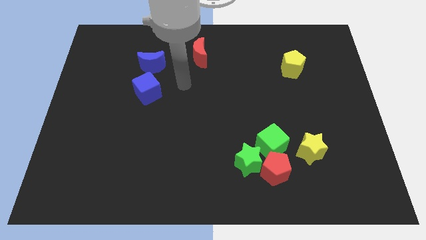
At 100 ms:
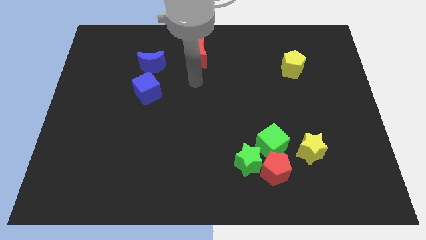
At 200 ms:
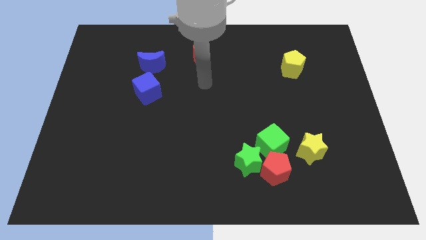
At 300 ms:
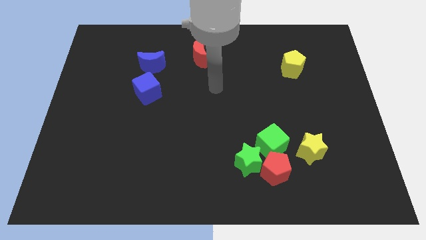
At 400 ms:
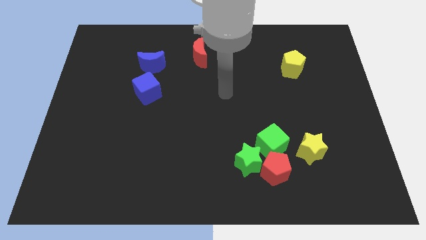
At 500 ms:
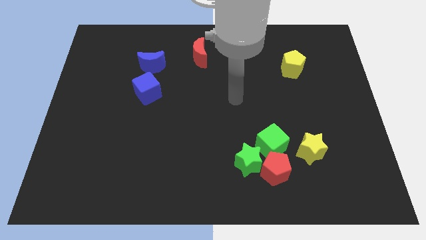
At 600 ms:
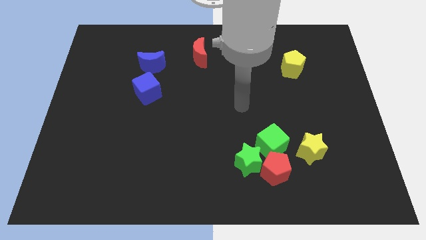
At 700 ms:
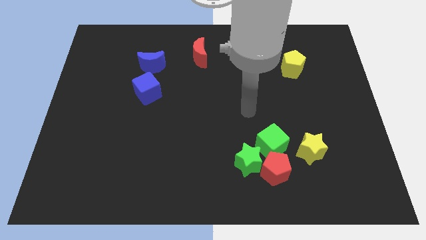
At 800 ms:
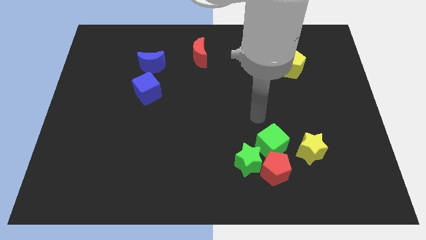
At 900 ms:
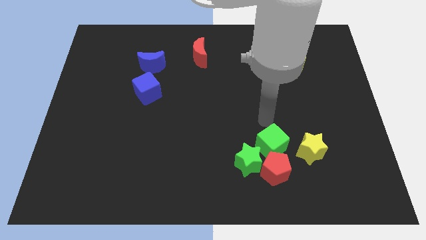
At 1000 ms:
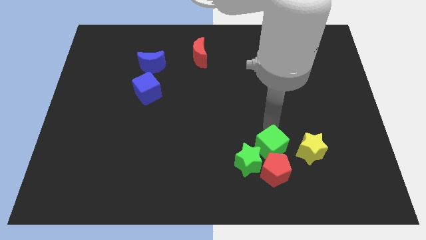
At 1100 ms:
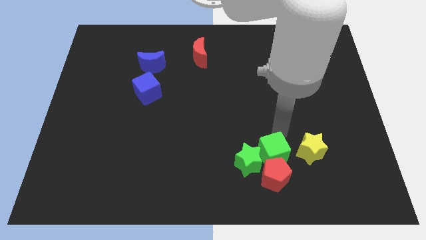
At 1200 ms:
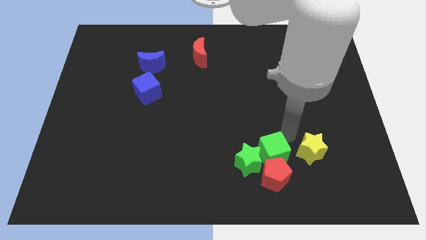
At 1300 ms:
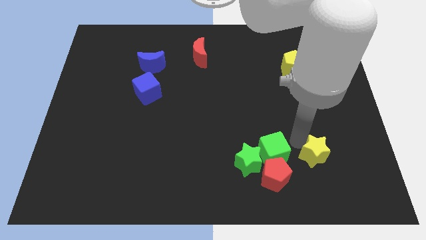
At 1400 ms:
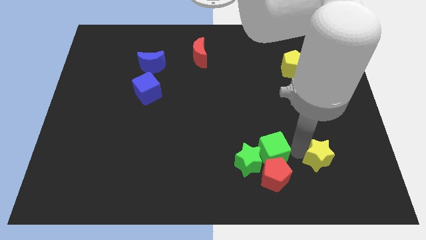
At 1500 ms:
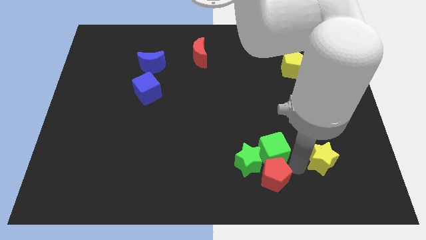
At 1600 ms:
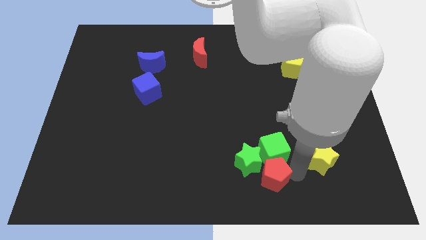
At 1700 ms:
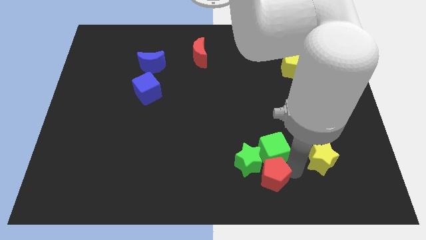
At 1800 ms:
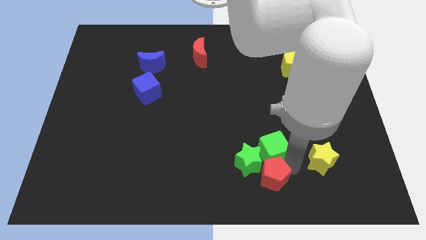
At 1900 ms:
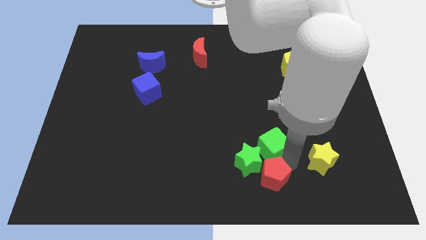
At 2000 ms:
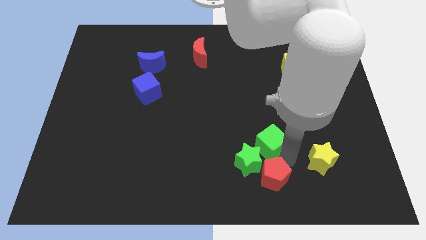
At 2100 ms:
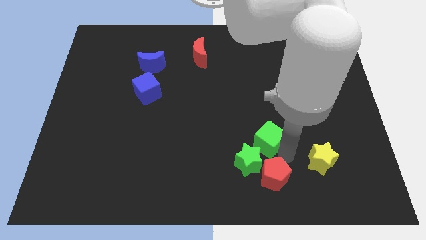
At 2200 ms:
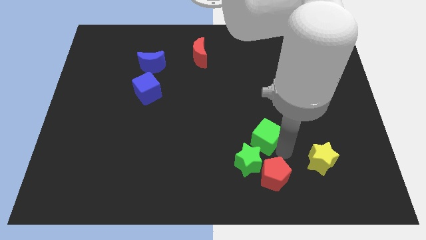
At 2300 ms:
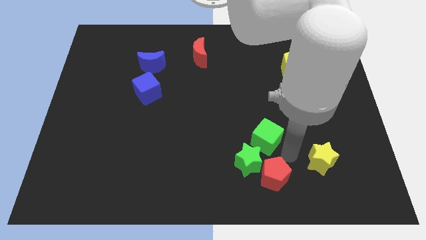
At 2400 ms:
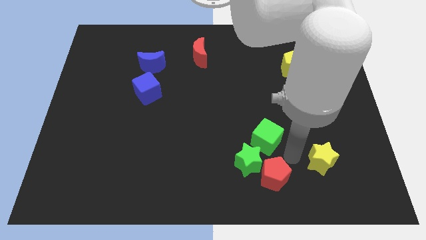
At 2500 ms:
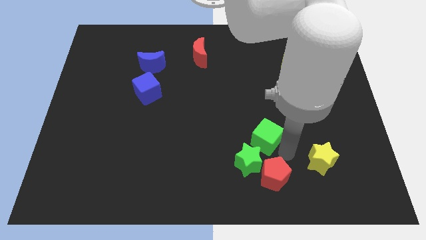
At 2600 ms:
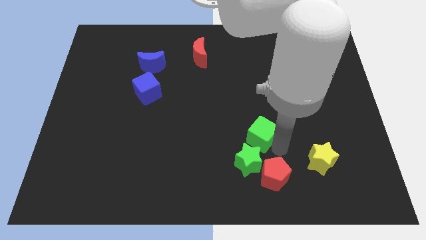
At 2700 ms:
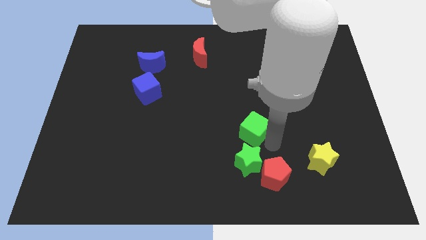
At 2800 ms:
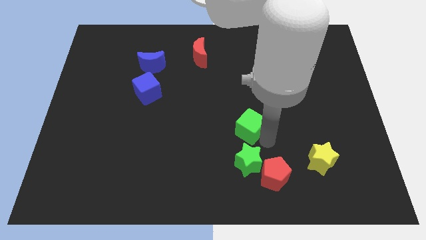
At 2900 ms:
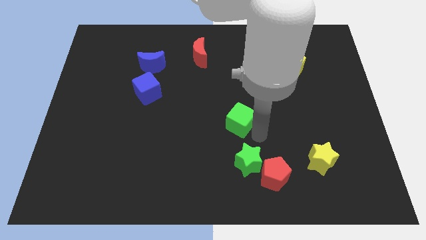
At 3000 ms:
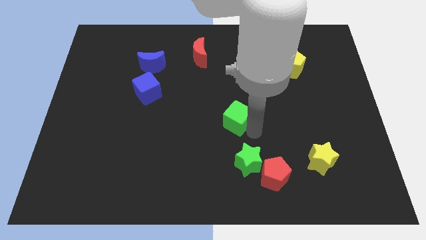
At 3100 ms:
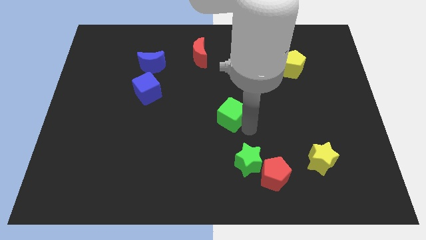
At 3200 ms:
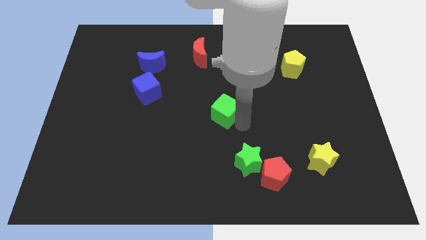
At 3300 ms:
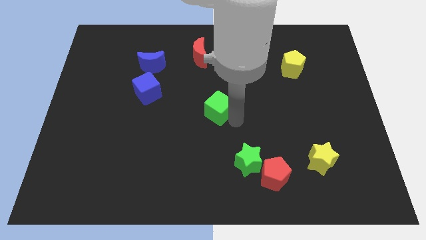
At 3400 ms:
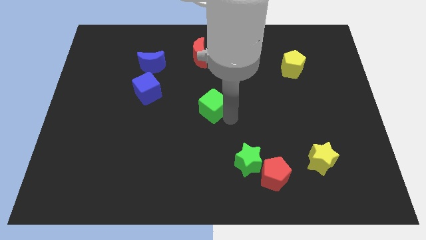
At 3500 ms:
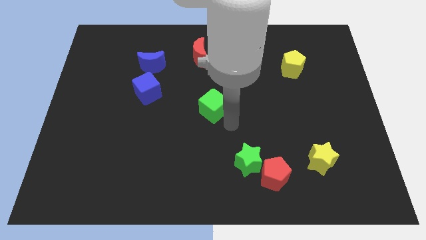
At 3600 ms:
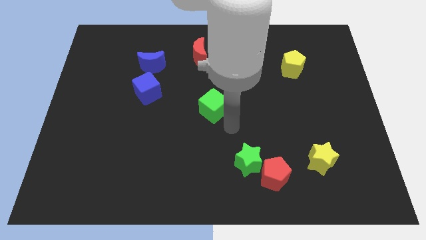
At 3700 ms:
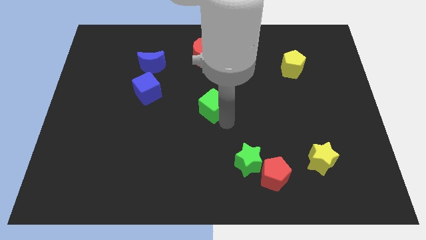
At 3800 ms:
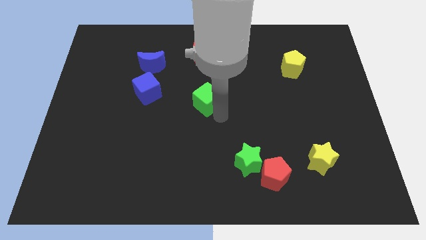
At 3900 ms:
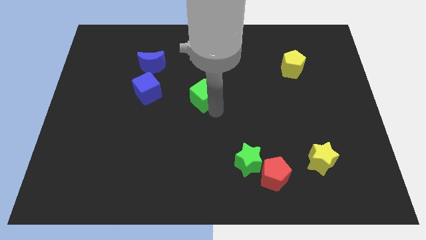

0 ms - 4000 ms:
push the green cube diagonally up and left

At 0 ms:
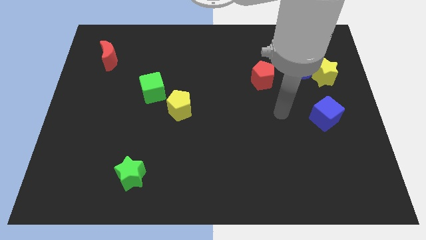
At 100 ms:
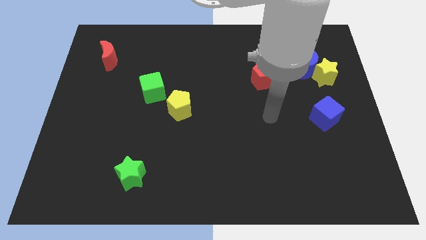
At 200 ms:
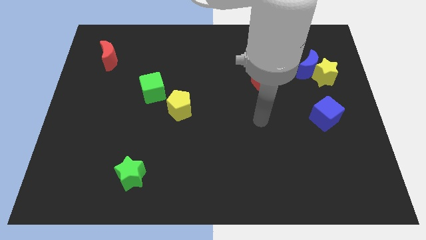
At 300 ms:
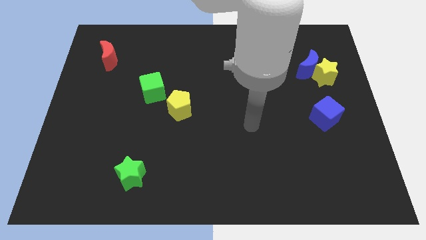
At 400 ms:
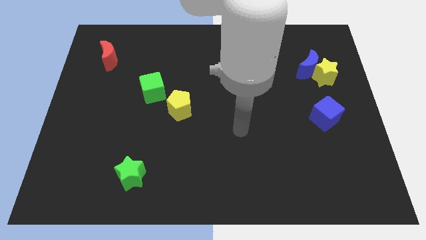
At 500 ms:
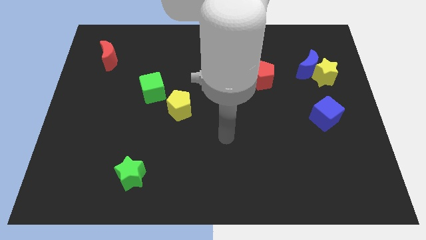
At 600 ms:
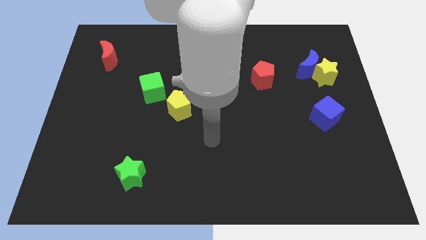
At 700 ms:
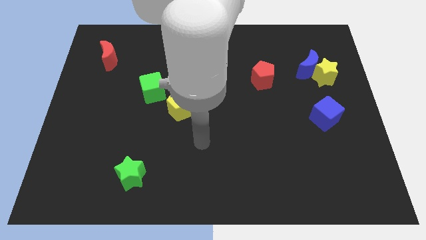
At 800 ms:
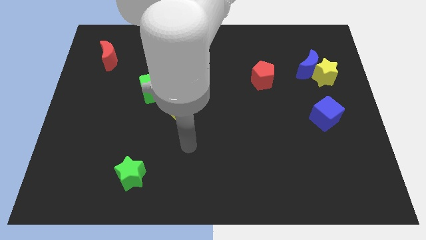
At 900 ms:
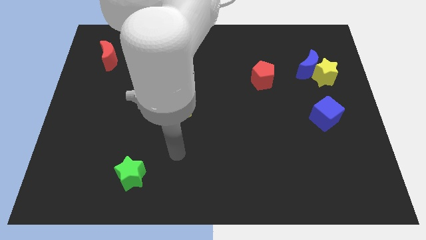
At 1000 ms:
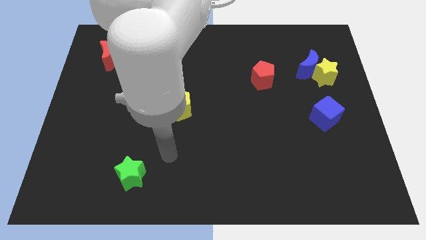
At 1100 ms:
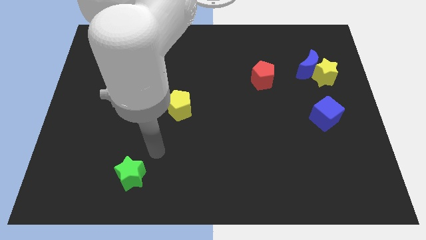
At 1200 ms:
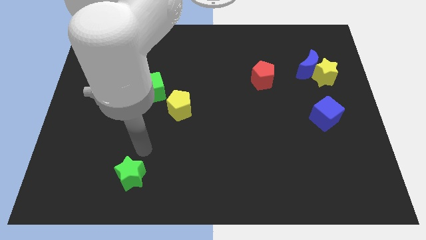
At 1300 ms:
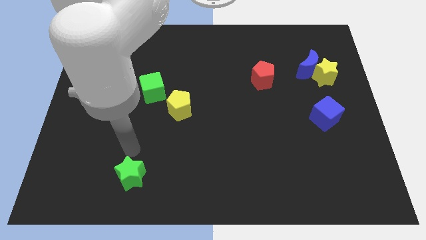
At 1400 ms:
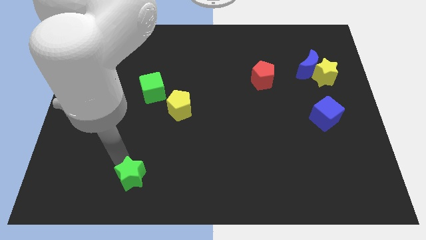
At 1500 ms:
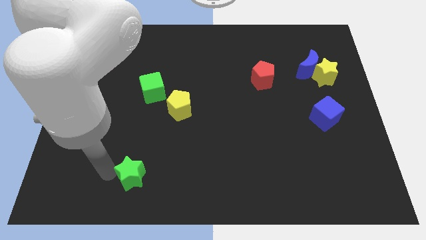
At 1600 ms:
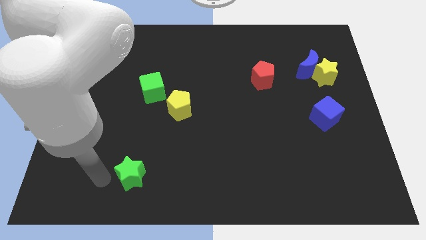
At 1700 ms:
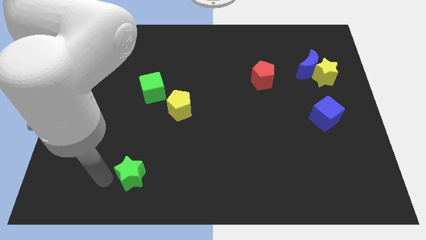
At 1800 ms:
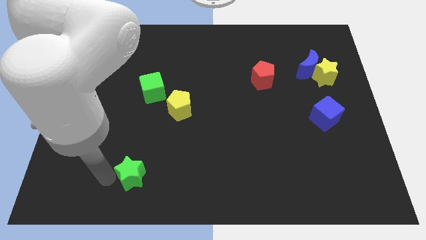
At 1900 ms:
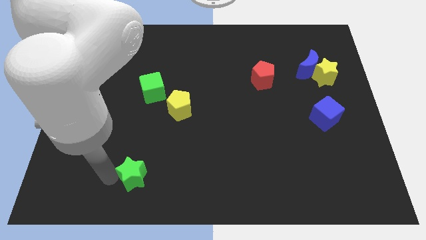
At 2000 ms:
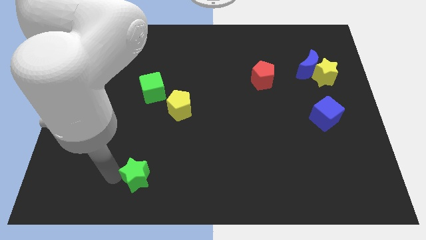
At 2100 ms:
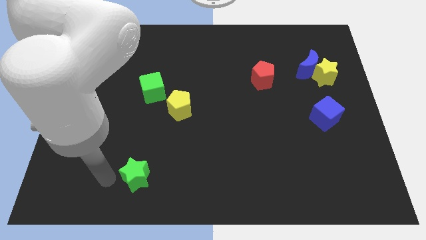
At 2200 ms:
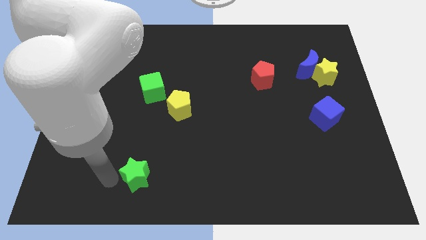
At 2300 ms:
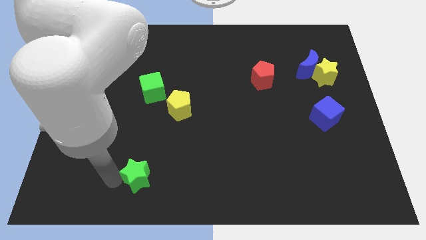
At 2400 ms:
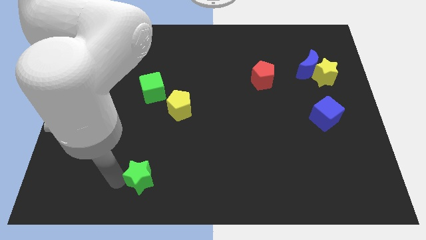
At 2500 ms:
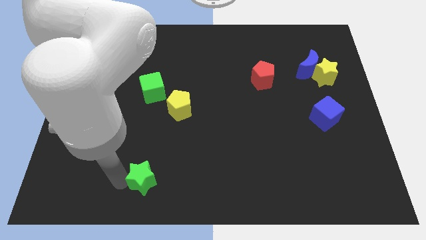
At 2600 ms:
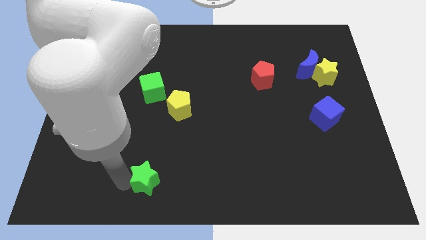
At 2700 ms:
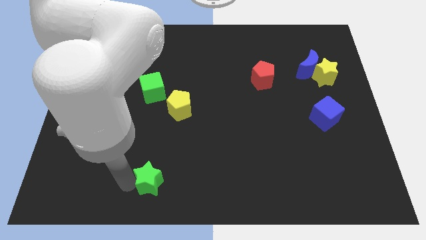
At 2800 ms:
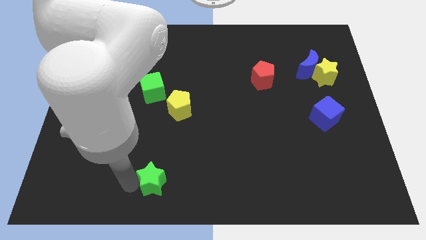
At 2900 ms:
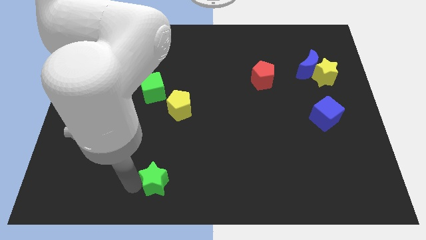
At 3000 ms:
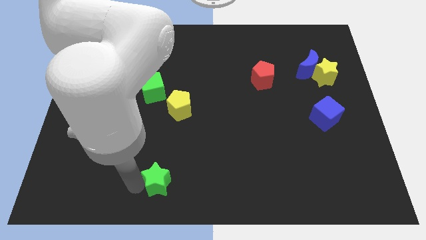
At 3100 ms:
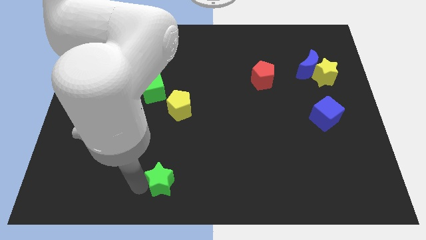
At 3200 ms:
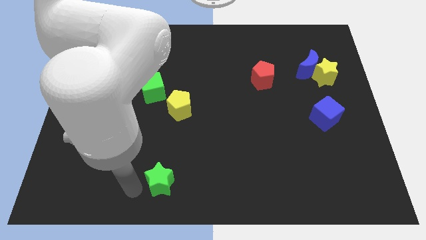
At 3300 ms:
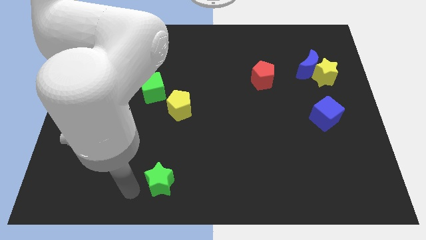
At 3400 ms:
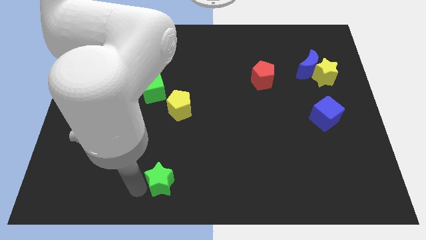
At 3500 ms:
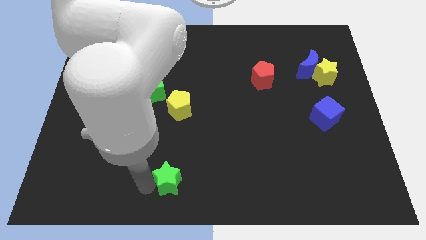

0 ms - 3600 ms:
push the green star slightly to the right

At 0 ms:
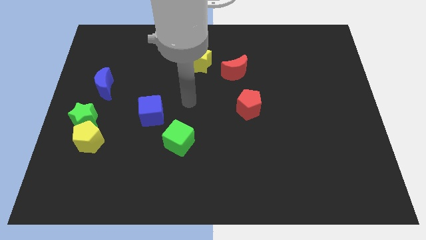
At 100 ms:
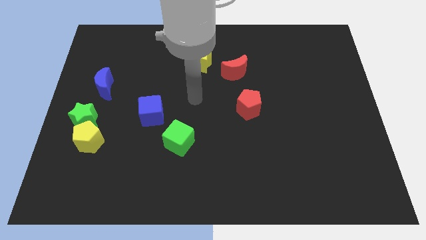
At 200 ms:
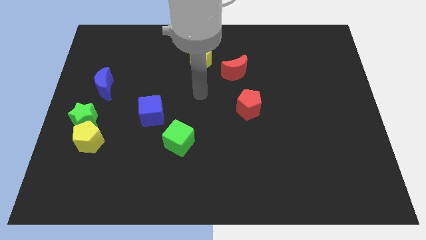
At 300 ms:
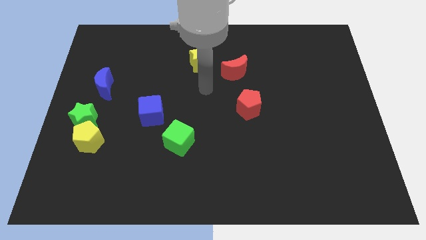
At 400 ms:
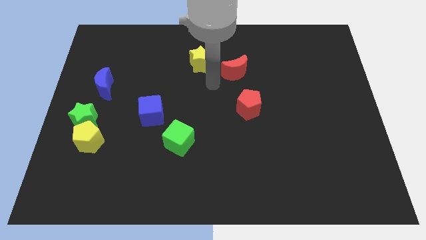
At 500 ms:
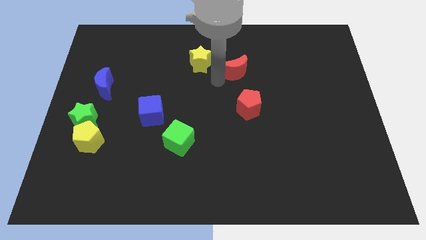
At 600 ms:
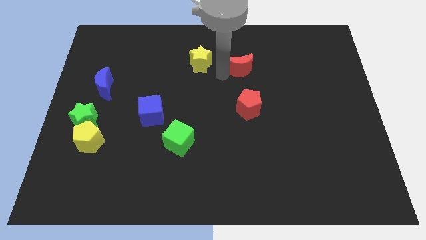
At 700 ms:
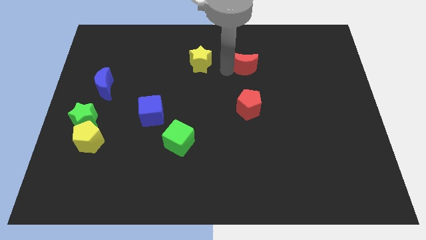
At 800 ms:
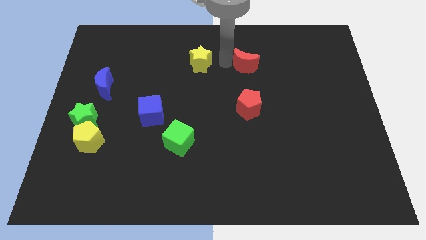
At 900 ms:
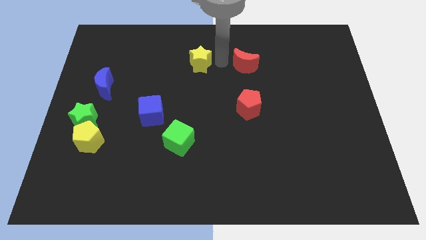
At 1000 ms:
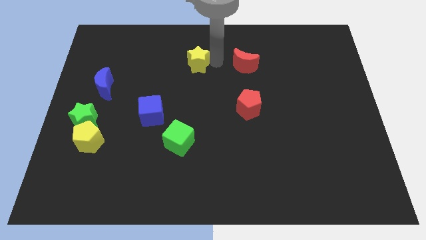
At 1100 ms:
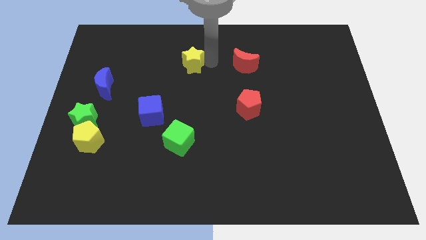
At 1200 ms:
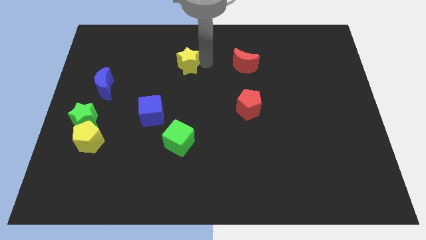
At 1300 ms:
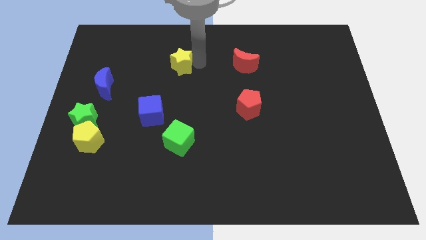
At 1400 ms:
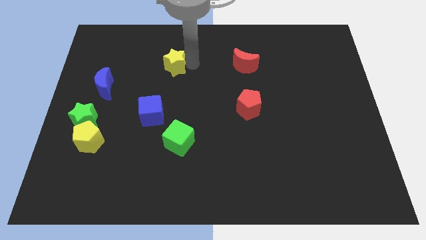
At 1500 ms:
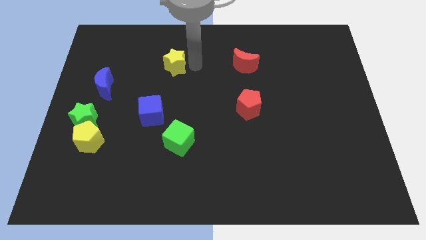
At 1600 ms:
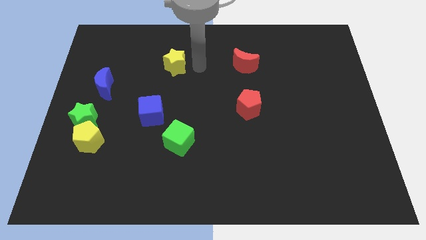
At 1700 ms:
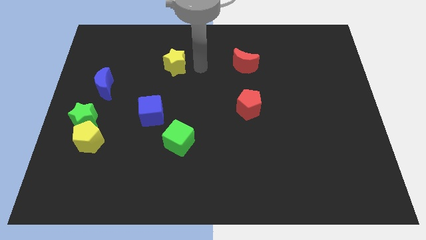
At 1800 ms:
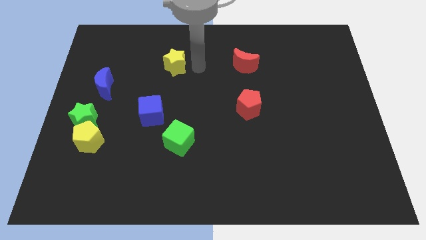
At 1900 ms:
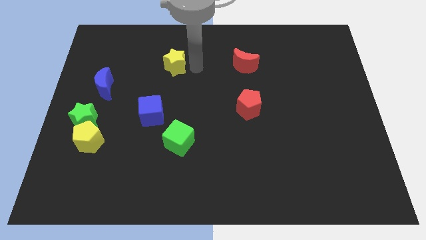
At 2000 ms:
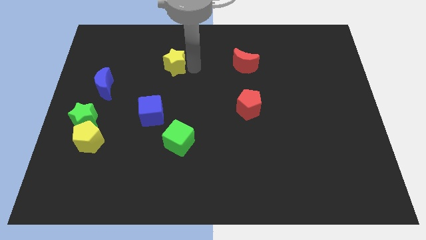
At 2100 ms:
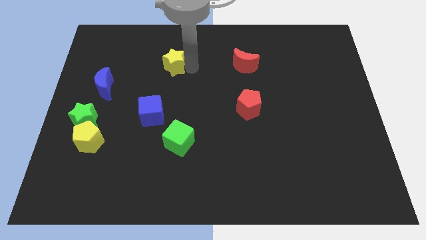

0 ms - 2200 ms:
slightly push the yellow star to the left
